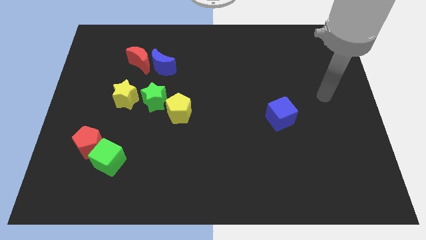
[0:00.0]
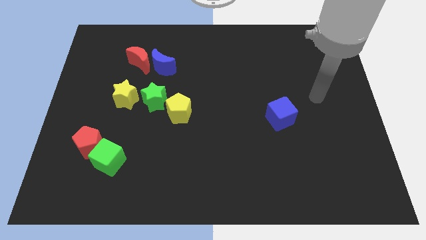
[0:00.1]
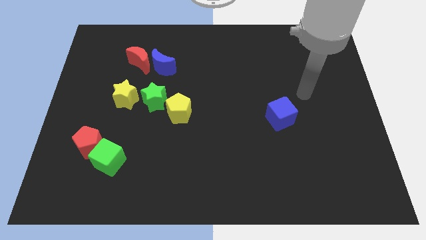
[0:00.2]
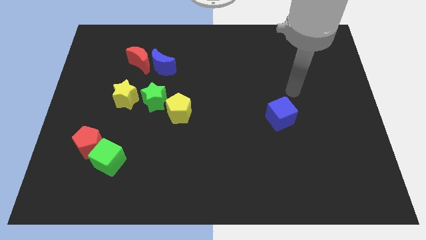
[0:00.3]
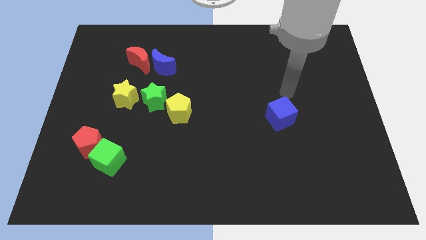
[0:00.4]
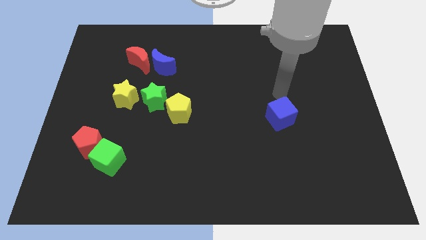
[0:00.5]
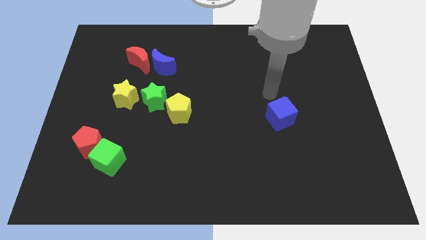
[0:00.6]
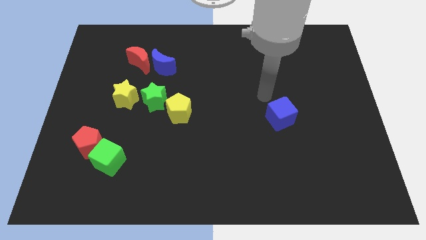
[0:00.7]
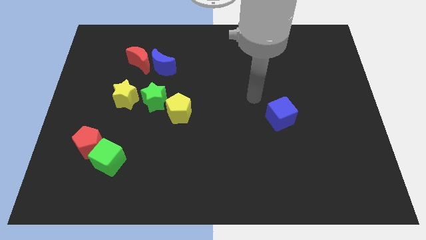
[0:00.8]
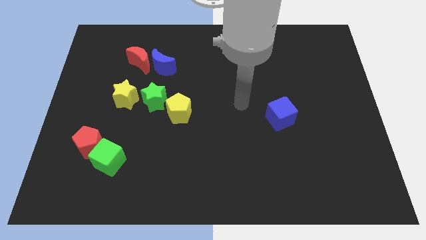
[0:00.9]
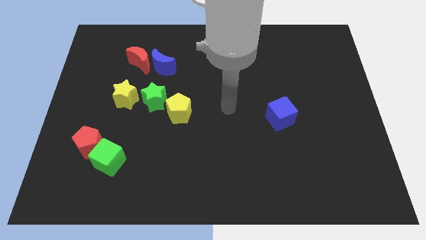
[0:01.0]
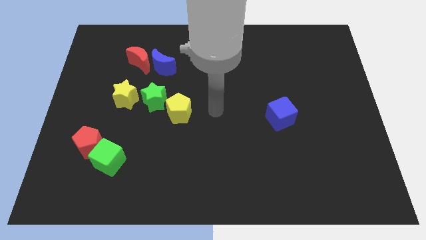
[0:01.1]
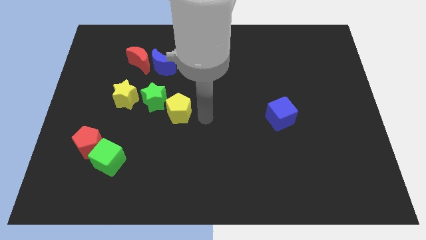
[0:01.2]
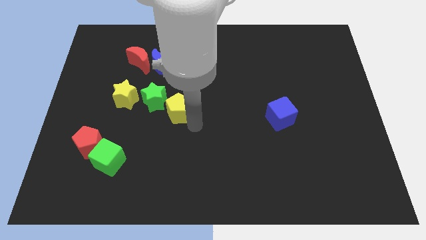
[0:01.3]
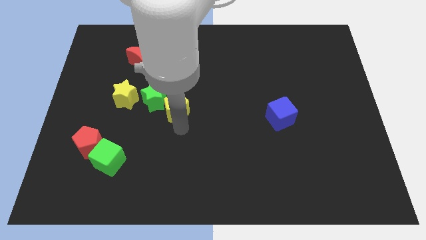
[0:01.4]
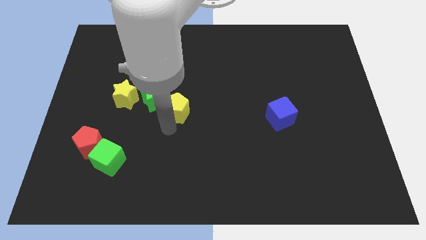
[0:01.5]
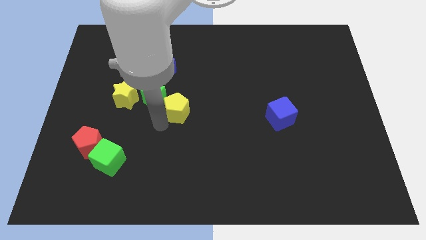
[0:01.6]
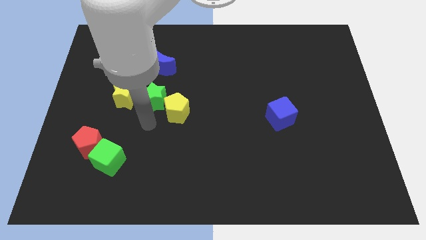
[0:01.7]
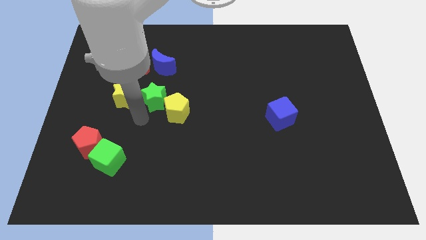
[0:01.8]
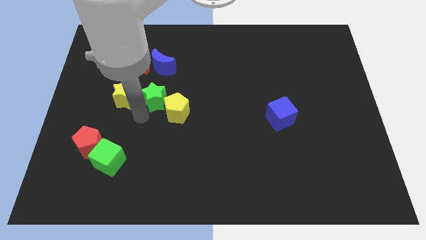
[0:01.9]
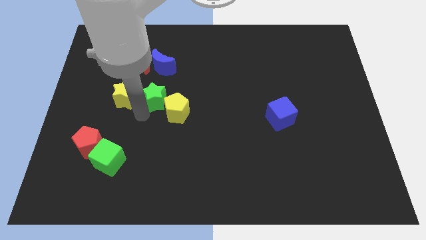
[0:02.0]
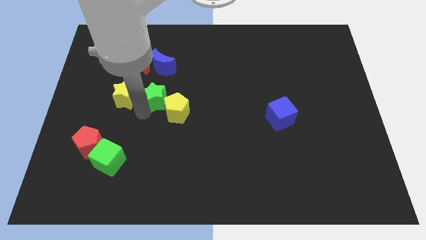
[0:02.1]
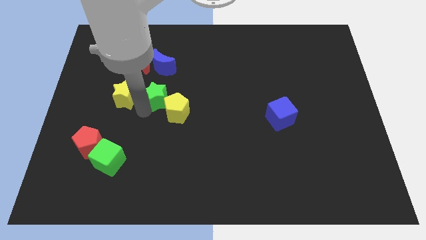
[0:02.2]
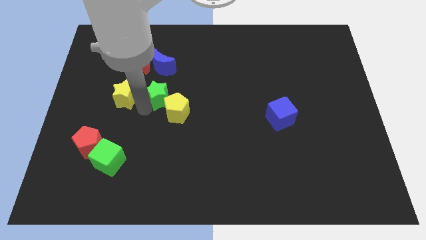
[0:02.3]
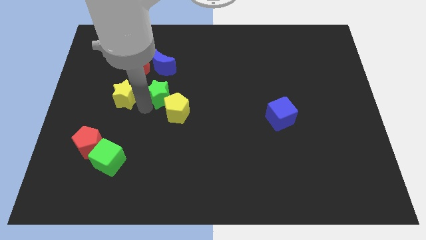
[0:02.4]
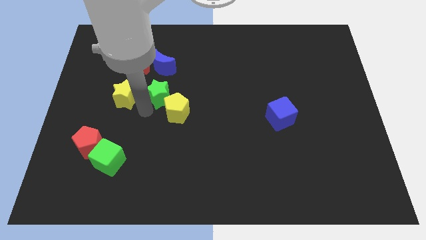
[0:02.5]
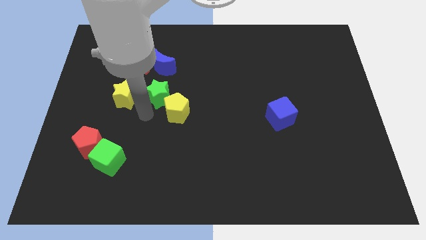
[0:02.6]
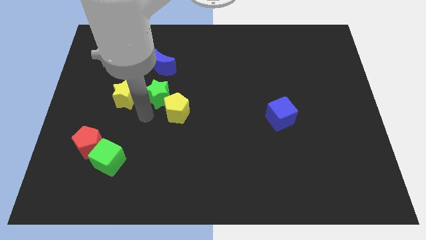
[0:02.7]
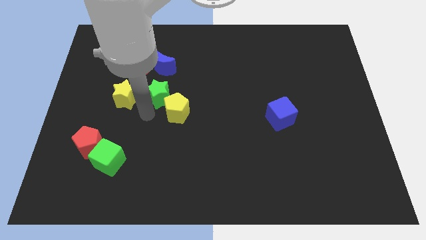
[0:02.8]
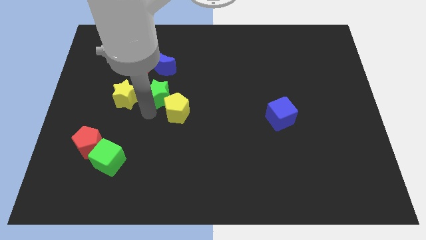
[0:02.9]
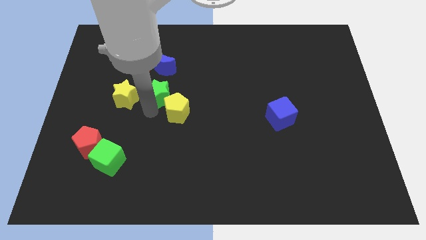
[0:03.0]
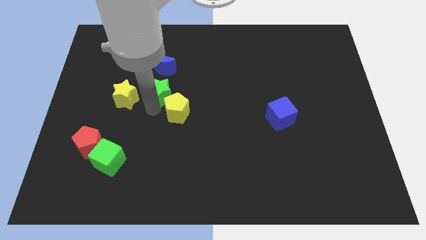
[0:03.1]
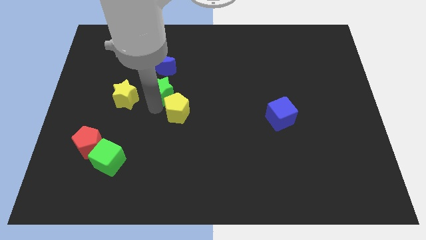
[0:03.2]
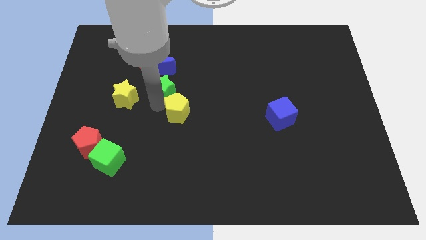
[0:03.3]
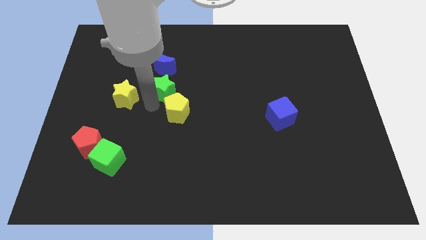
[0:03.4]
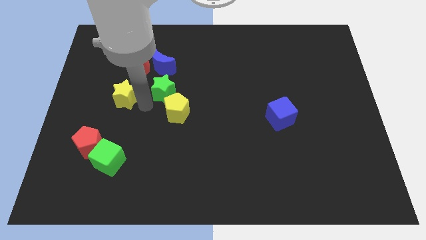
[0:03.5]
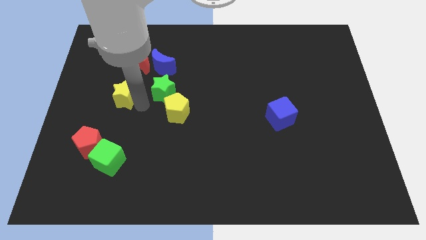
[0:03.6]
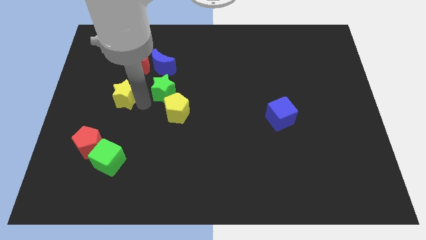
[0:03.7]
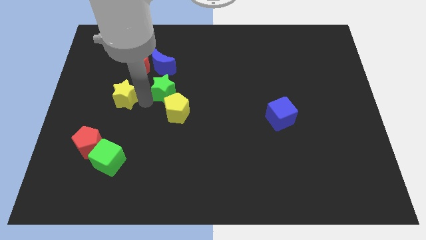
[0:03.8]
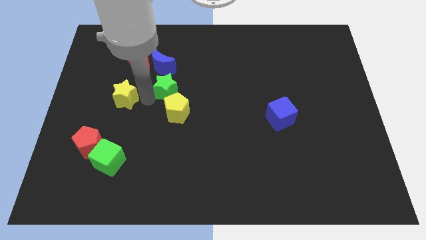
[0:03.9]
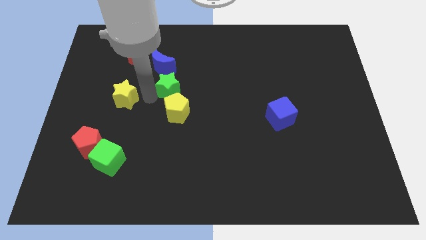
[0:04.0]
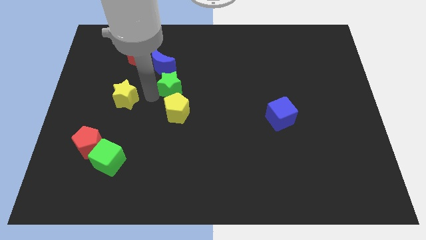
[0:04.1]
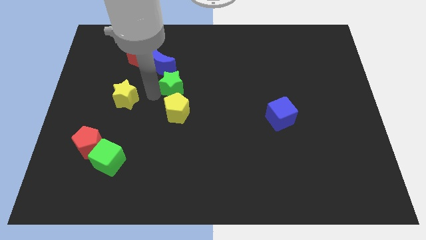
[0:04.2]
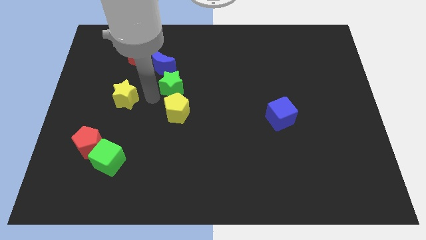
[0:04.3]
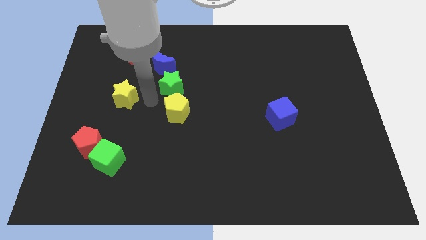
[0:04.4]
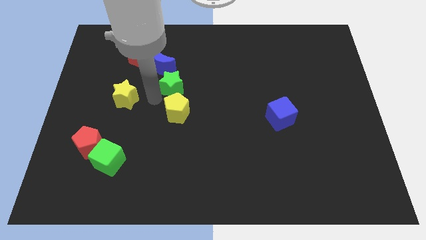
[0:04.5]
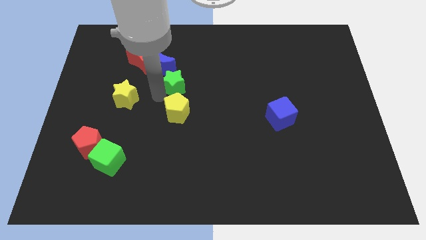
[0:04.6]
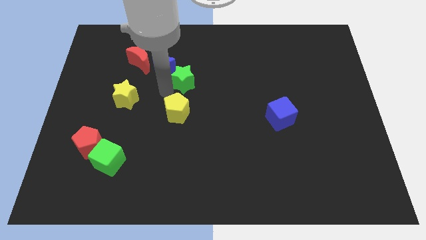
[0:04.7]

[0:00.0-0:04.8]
push the green star up and to the right a little bit

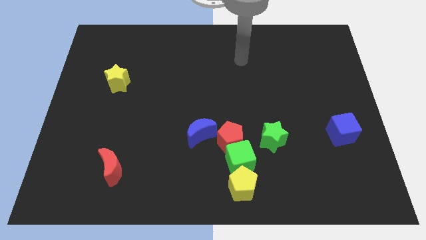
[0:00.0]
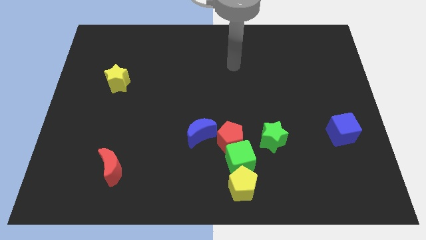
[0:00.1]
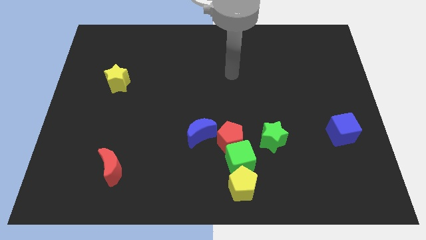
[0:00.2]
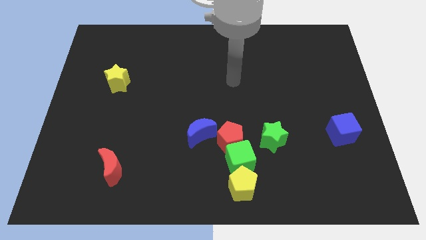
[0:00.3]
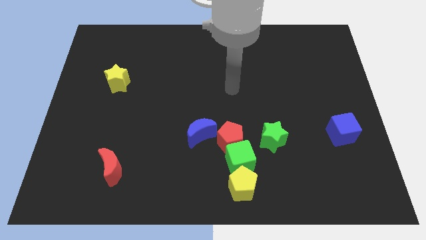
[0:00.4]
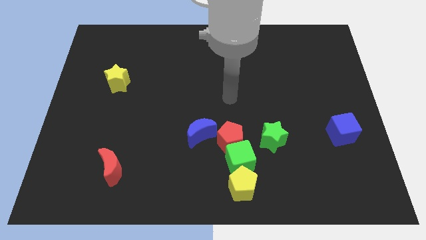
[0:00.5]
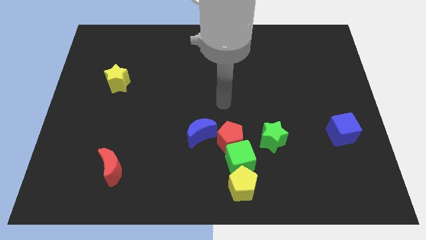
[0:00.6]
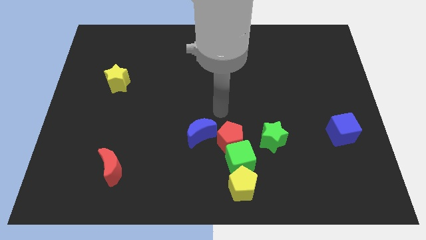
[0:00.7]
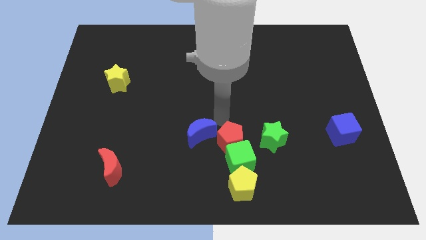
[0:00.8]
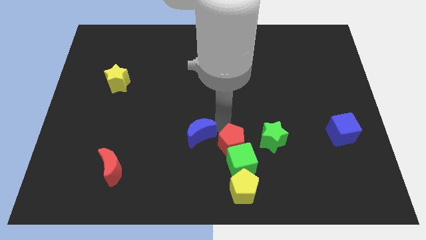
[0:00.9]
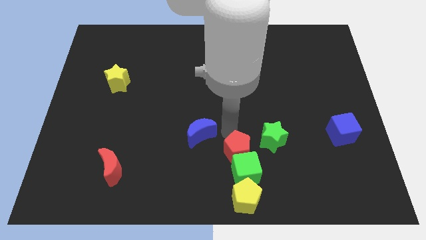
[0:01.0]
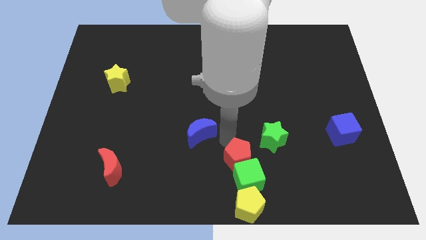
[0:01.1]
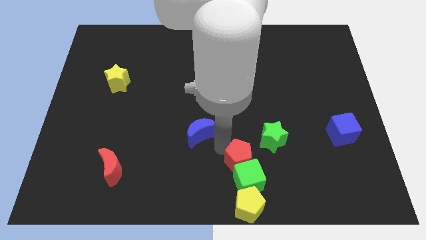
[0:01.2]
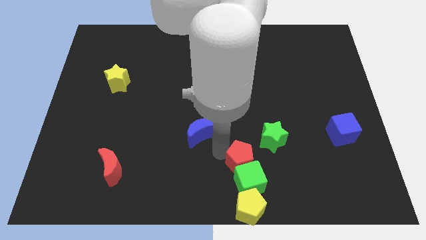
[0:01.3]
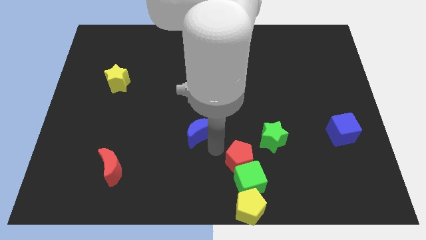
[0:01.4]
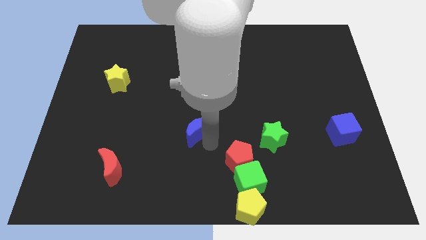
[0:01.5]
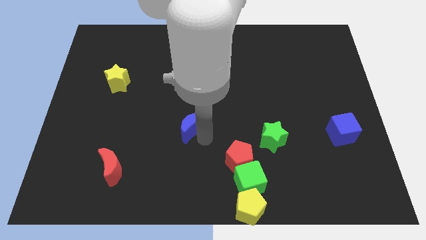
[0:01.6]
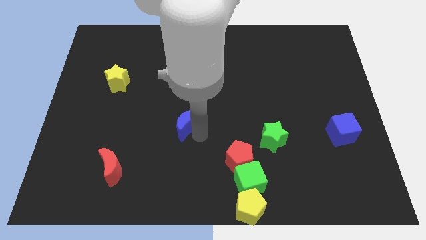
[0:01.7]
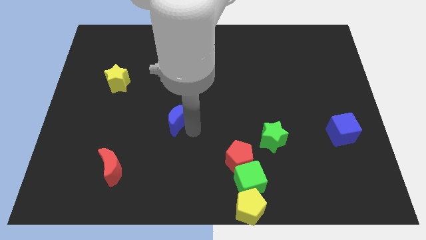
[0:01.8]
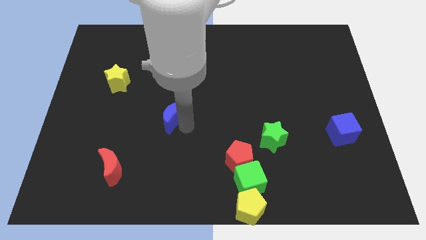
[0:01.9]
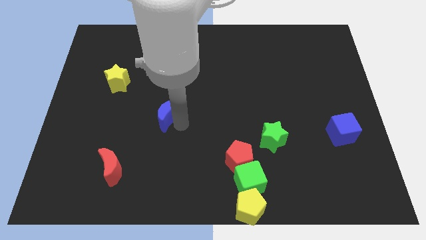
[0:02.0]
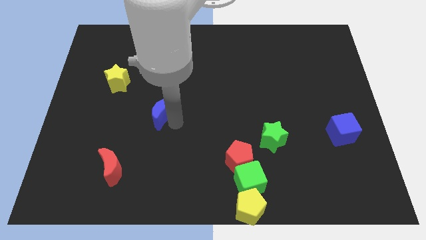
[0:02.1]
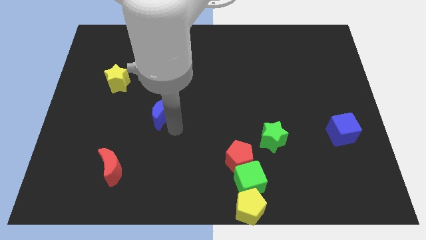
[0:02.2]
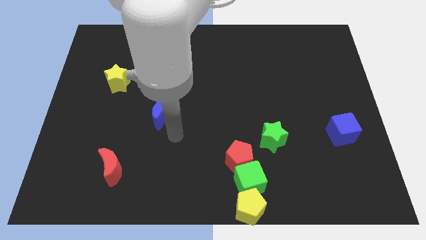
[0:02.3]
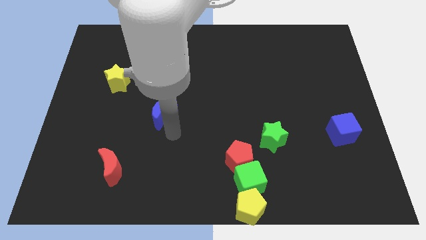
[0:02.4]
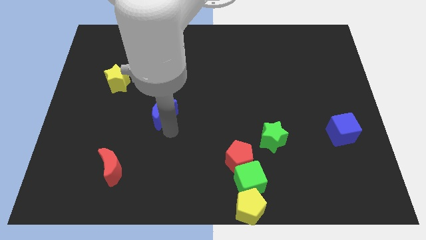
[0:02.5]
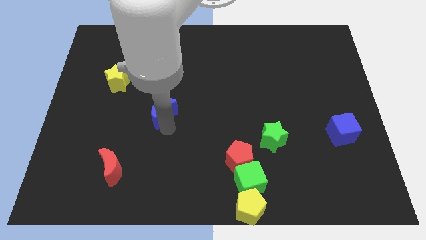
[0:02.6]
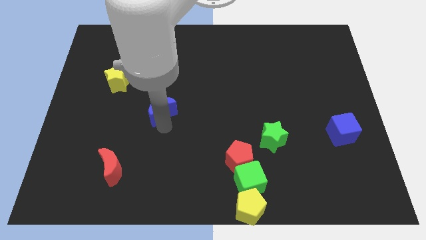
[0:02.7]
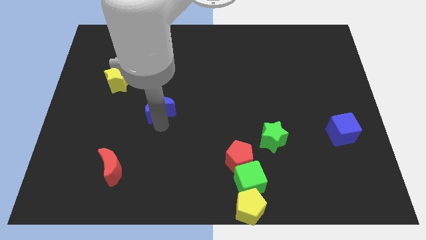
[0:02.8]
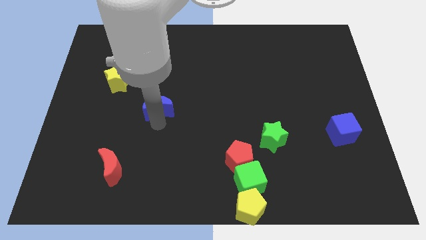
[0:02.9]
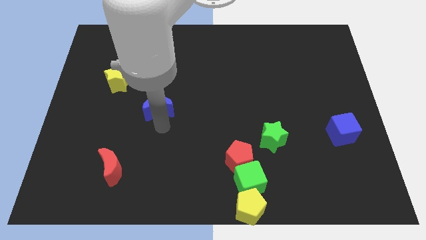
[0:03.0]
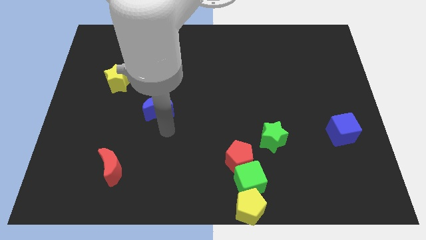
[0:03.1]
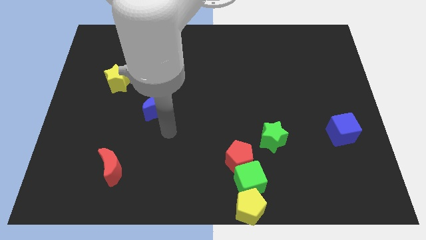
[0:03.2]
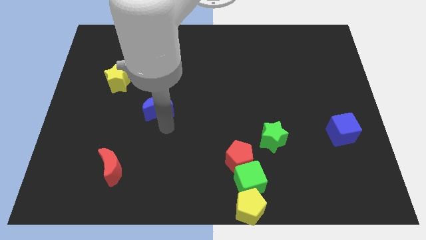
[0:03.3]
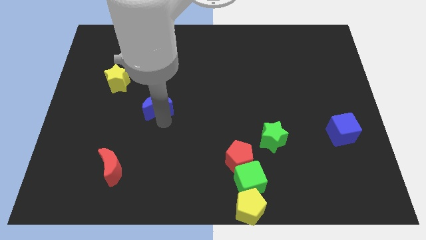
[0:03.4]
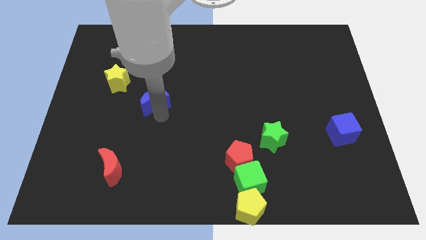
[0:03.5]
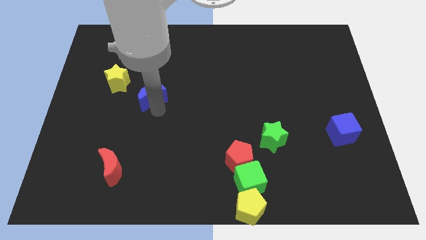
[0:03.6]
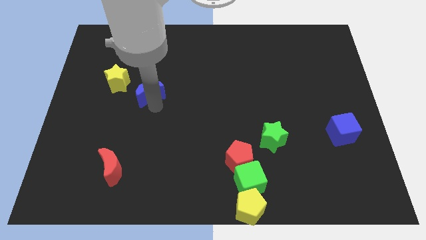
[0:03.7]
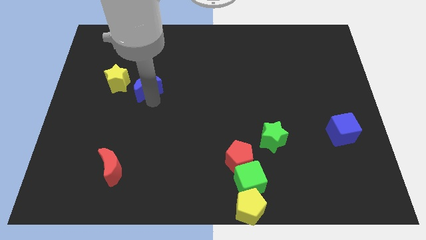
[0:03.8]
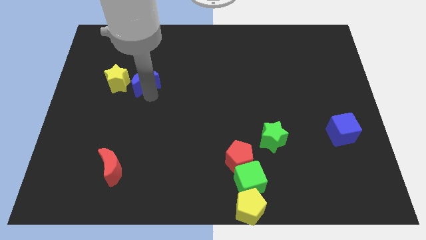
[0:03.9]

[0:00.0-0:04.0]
move the blue moon upwards and then to the left
